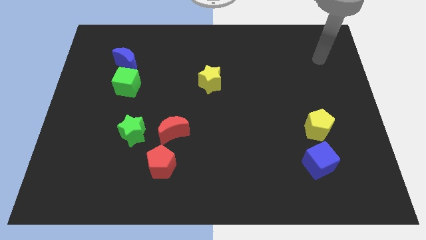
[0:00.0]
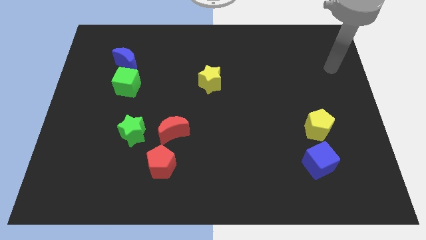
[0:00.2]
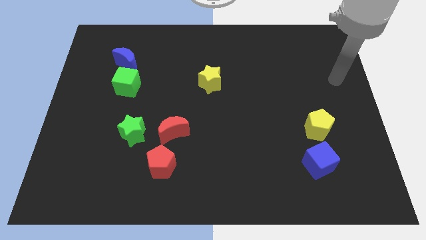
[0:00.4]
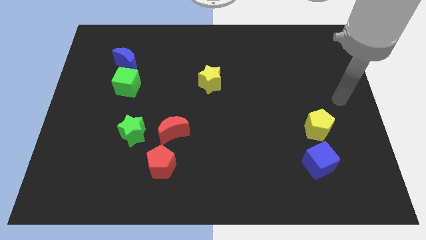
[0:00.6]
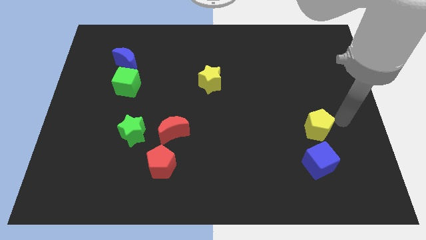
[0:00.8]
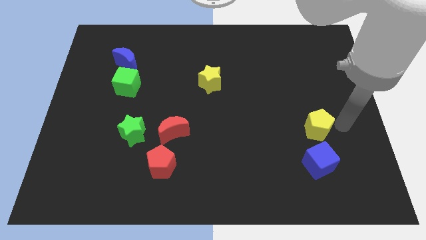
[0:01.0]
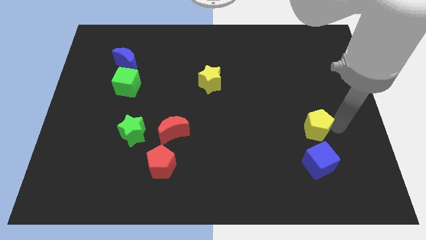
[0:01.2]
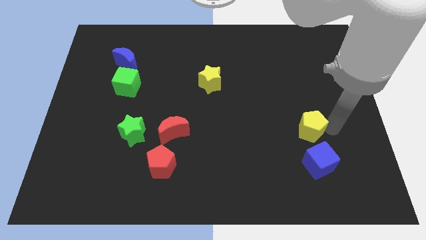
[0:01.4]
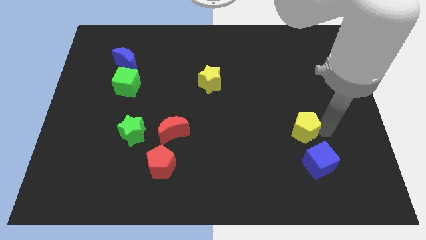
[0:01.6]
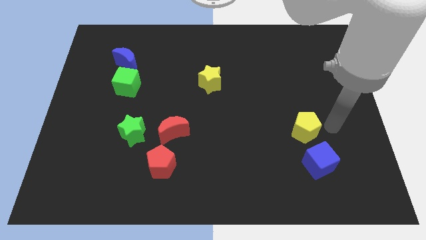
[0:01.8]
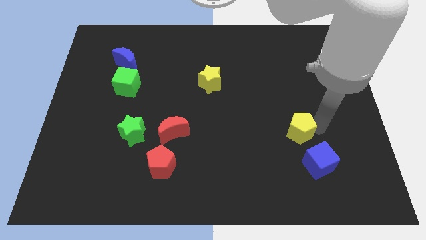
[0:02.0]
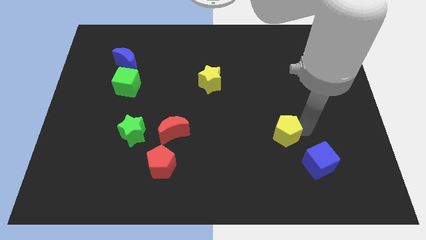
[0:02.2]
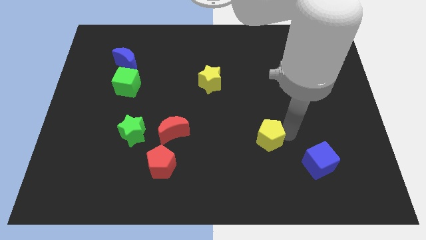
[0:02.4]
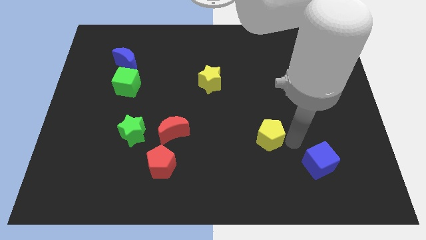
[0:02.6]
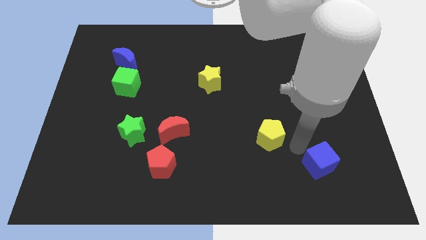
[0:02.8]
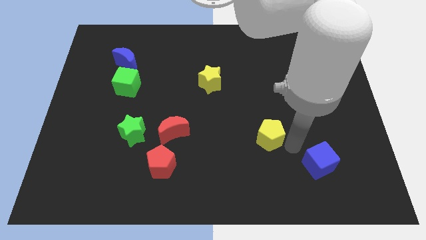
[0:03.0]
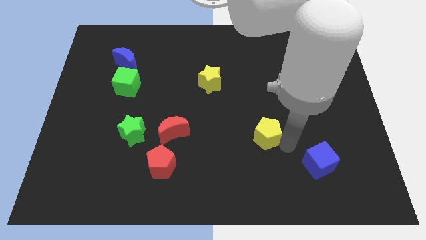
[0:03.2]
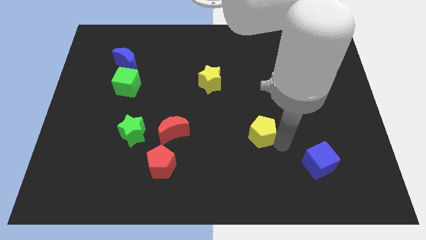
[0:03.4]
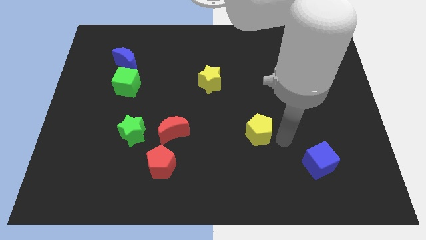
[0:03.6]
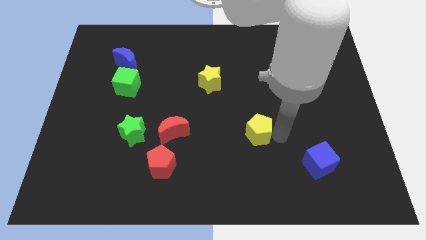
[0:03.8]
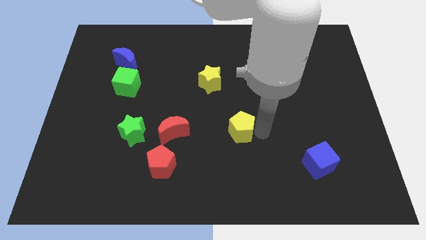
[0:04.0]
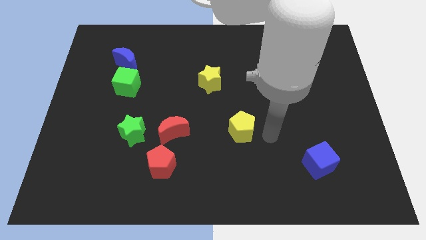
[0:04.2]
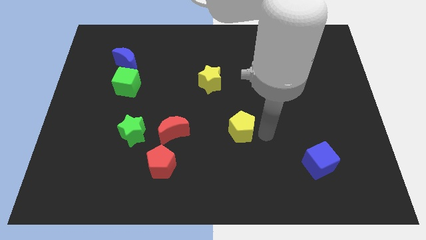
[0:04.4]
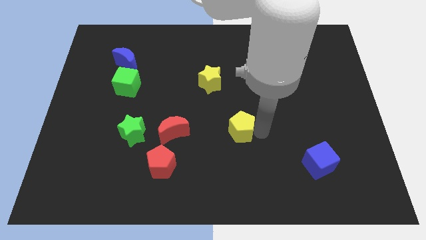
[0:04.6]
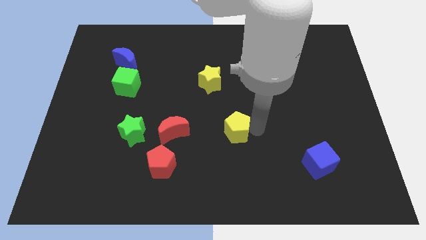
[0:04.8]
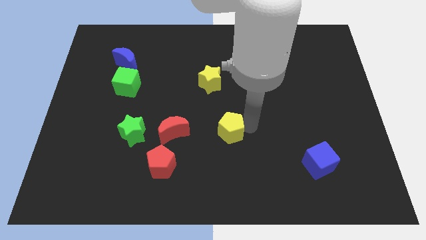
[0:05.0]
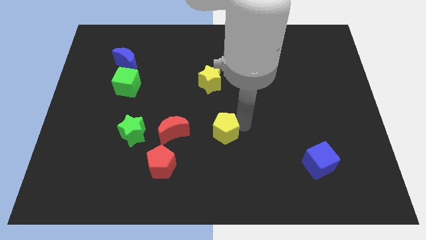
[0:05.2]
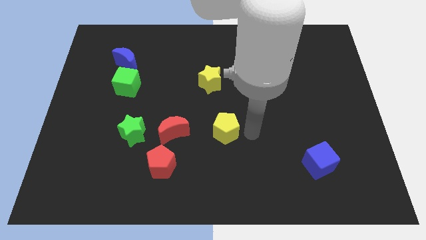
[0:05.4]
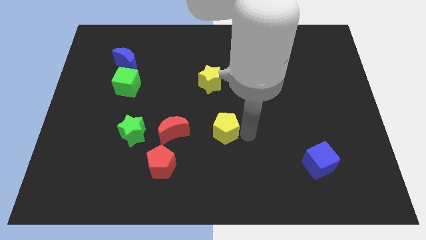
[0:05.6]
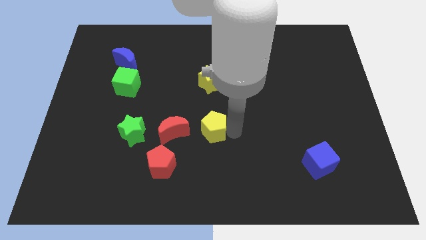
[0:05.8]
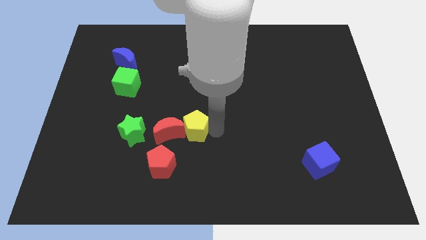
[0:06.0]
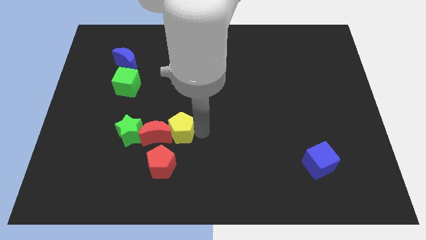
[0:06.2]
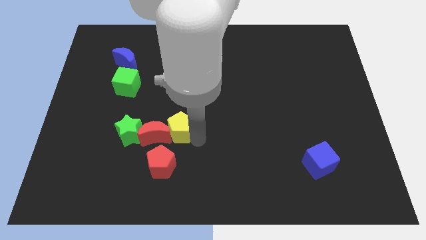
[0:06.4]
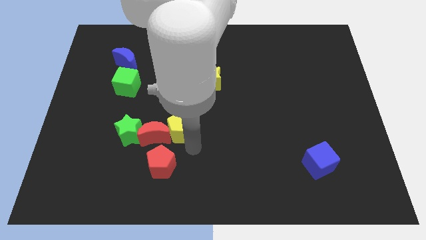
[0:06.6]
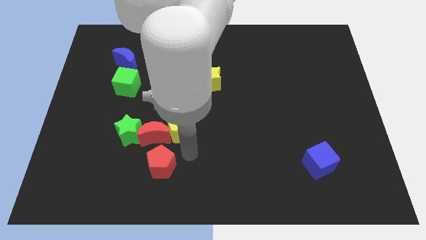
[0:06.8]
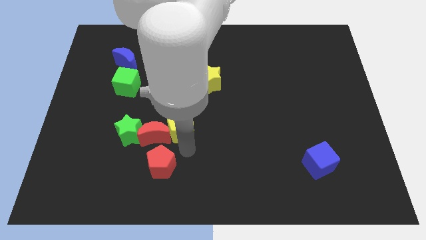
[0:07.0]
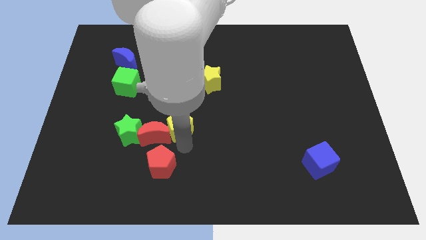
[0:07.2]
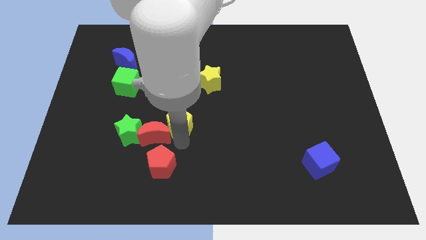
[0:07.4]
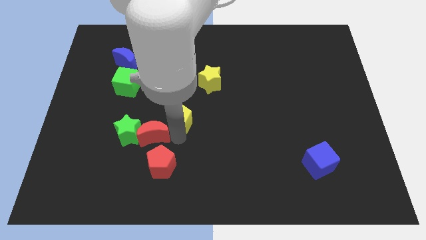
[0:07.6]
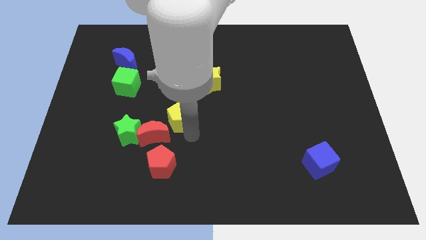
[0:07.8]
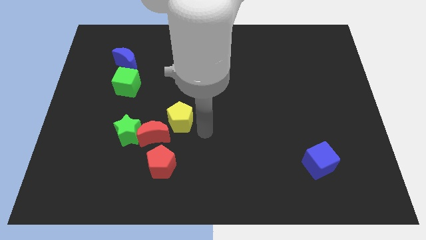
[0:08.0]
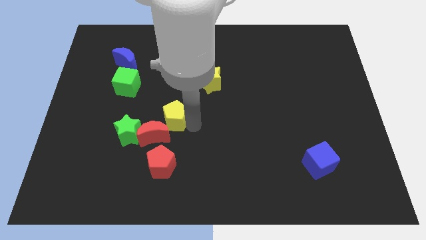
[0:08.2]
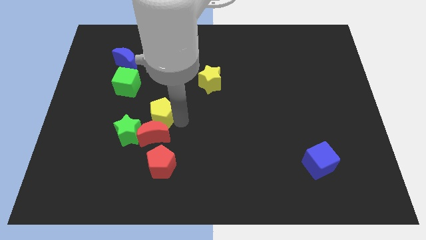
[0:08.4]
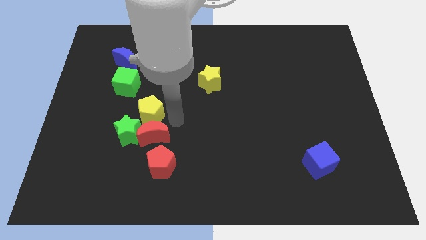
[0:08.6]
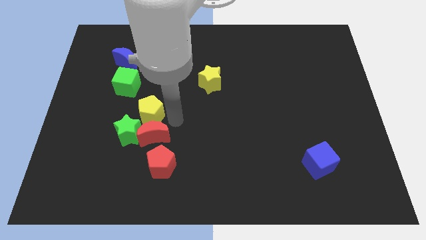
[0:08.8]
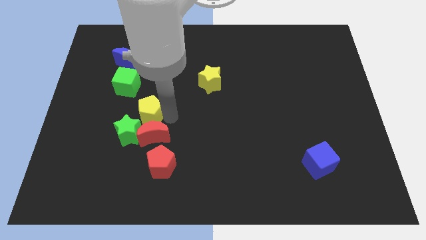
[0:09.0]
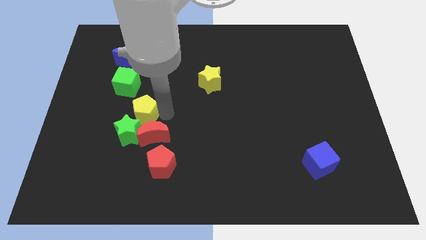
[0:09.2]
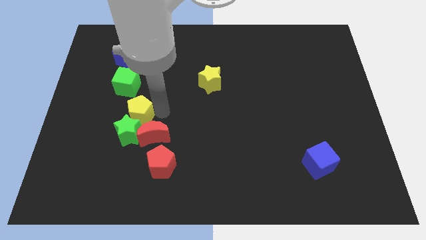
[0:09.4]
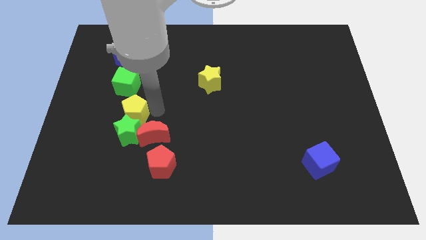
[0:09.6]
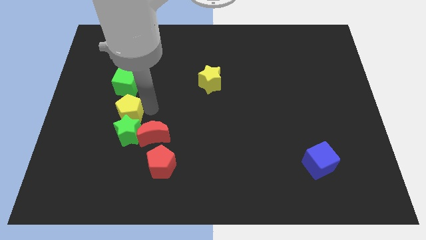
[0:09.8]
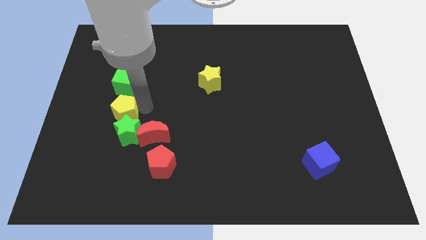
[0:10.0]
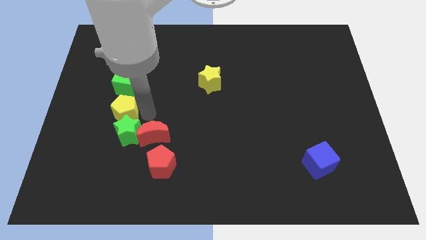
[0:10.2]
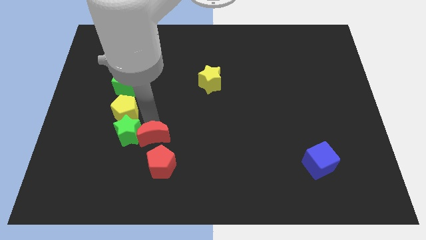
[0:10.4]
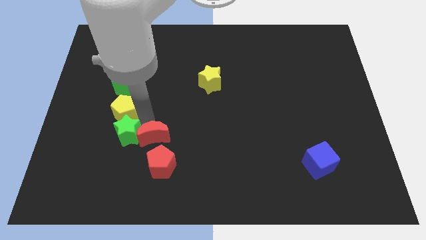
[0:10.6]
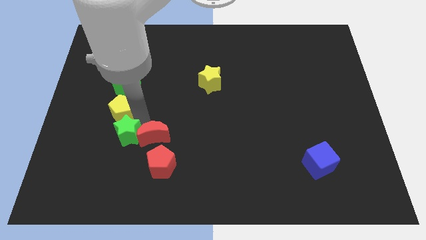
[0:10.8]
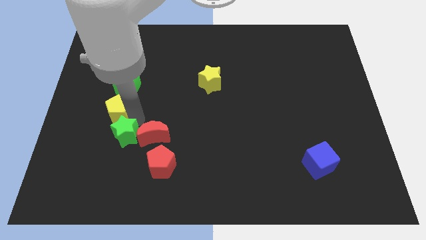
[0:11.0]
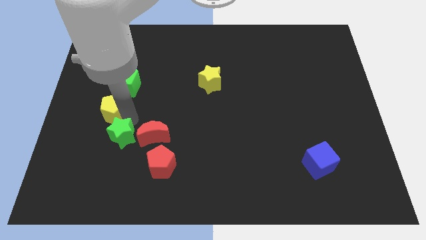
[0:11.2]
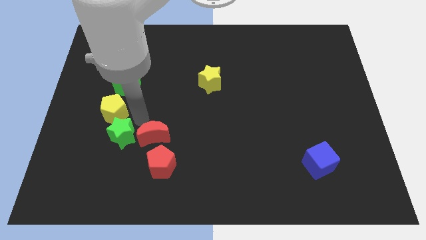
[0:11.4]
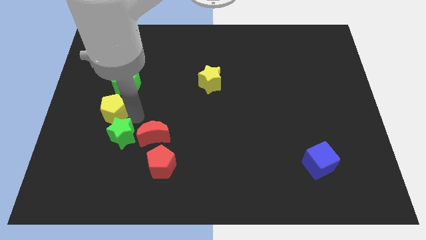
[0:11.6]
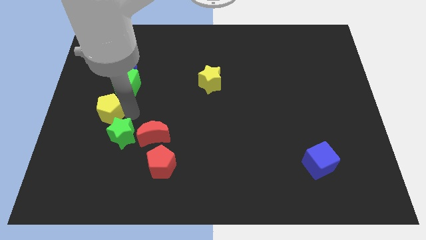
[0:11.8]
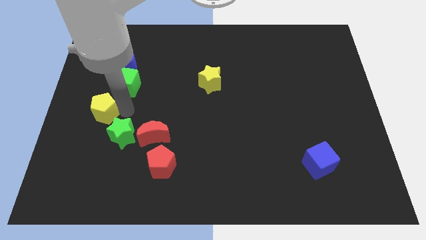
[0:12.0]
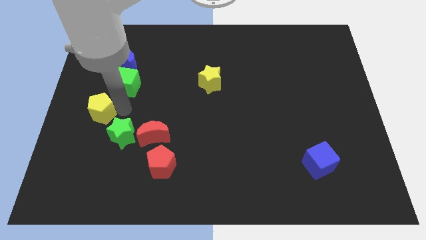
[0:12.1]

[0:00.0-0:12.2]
slide the yellow pentagon to the left side
